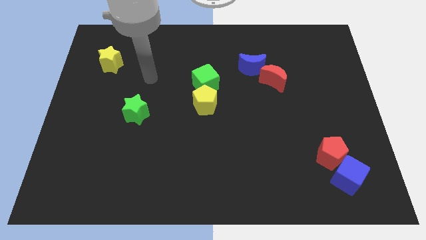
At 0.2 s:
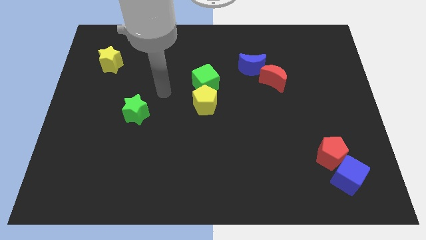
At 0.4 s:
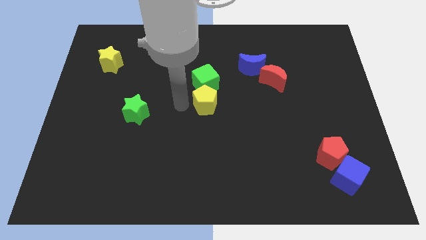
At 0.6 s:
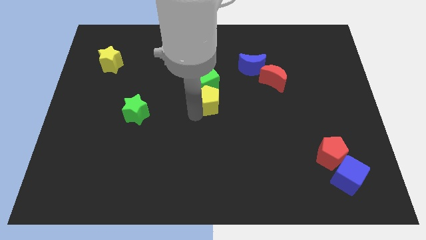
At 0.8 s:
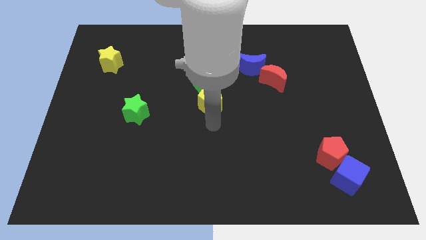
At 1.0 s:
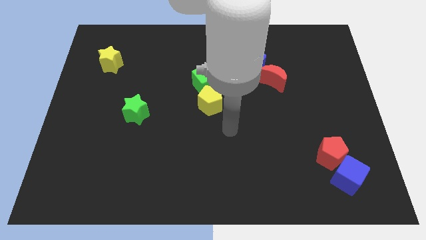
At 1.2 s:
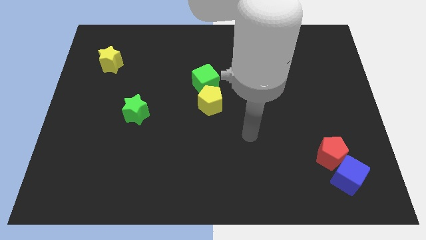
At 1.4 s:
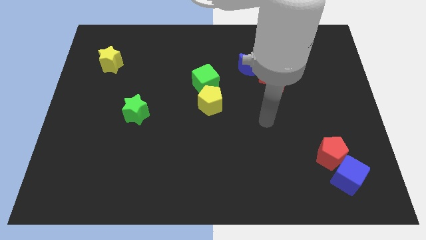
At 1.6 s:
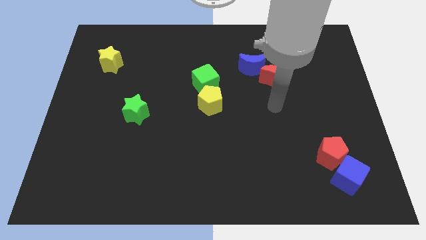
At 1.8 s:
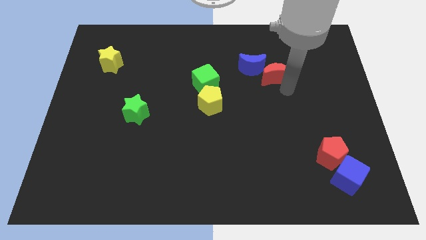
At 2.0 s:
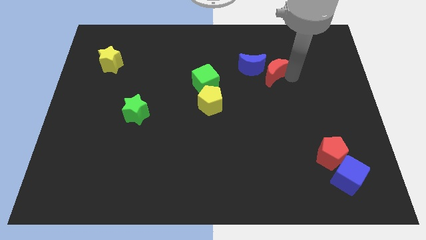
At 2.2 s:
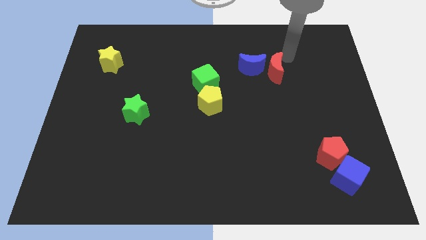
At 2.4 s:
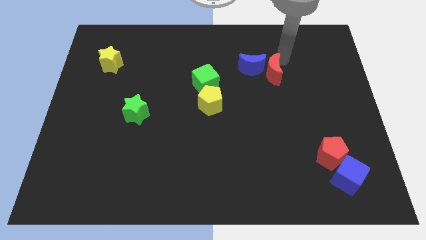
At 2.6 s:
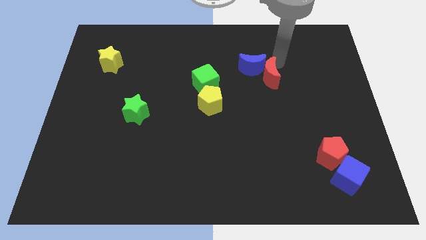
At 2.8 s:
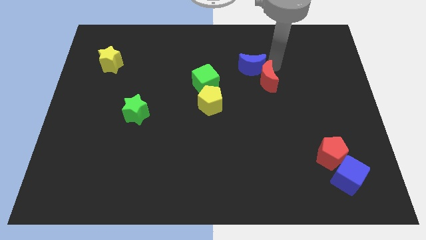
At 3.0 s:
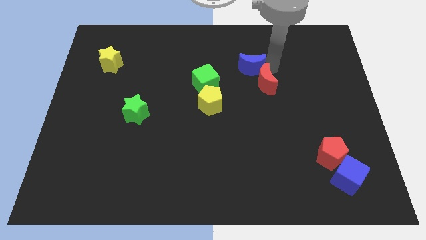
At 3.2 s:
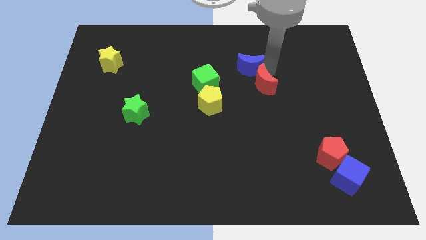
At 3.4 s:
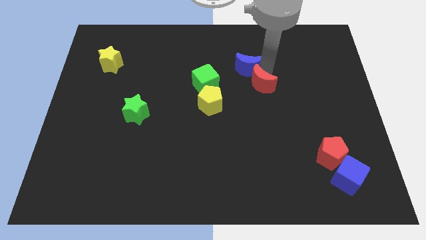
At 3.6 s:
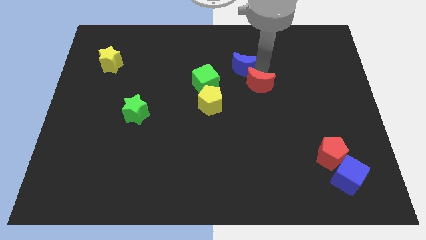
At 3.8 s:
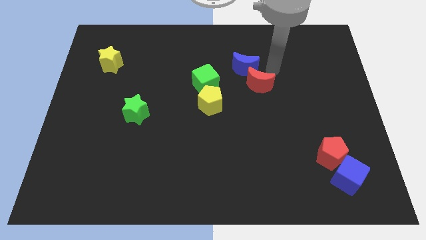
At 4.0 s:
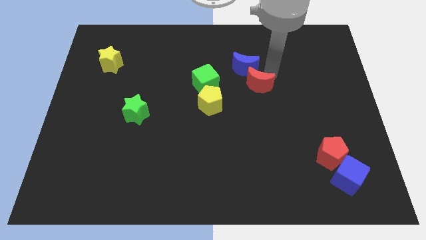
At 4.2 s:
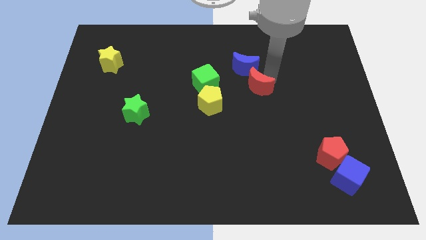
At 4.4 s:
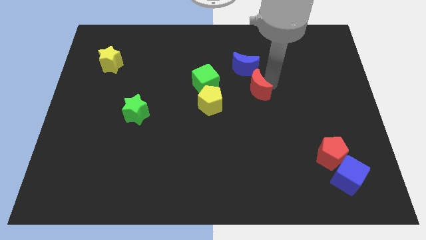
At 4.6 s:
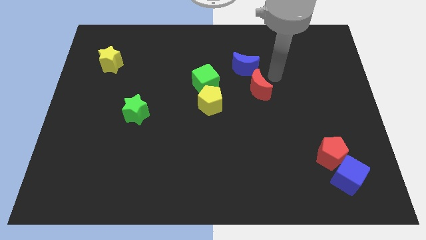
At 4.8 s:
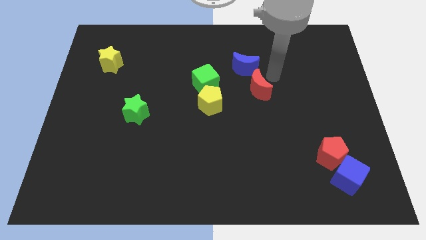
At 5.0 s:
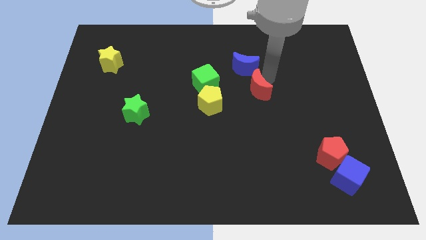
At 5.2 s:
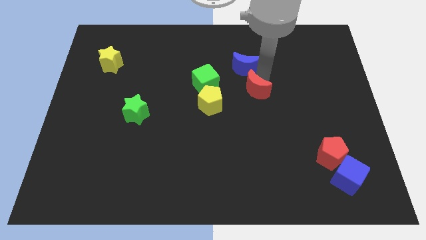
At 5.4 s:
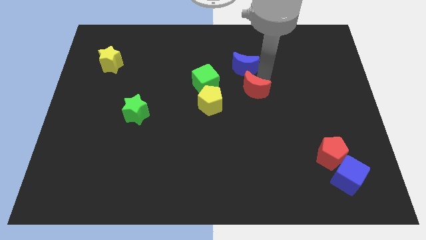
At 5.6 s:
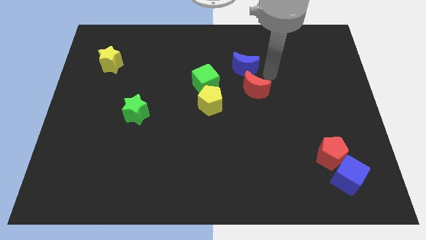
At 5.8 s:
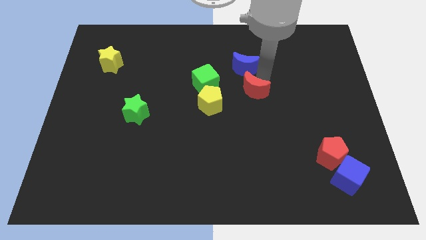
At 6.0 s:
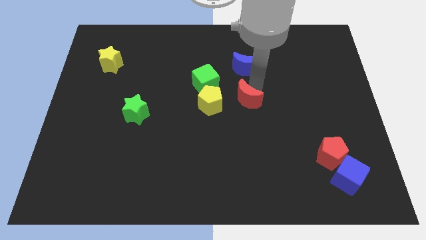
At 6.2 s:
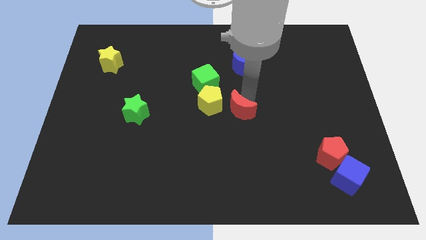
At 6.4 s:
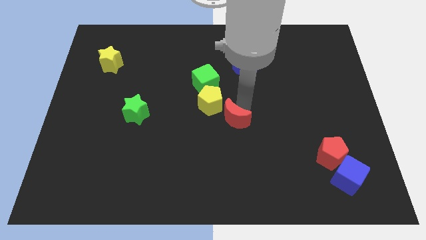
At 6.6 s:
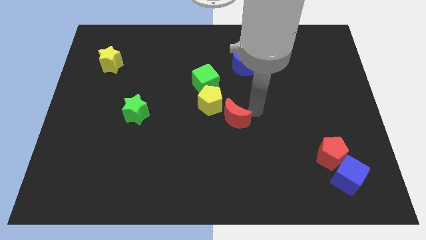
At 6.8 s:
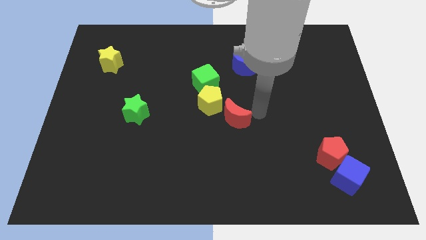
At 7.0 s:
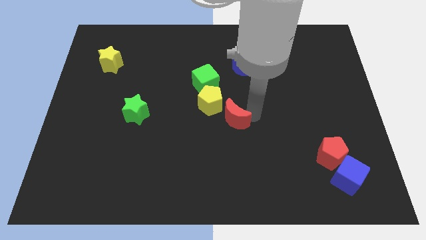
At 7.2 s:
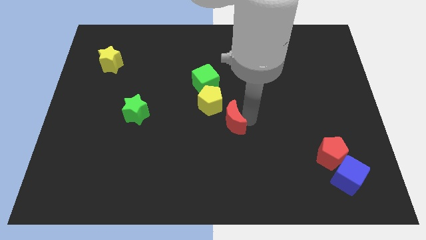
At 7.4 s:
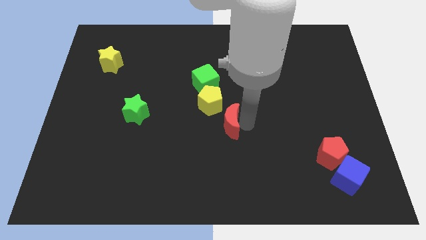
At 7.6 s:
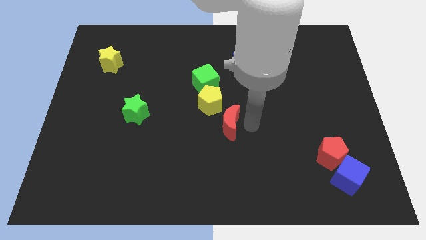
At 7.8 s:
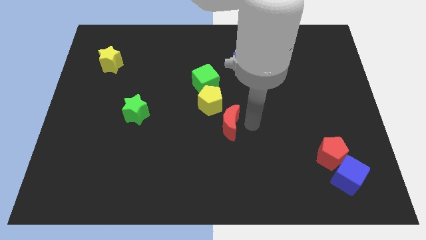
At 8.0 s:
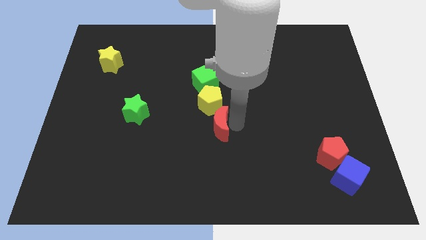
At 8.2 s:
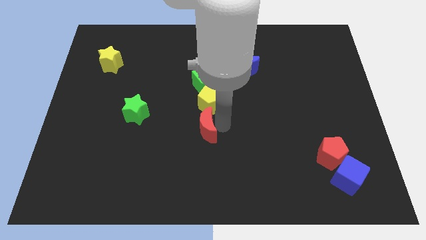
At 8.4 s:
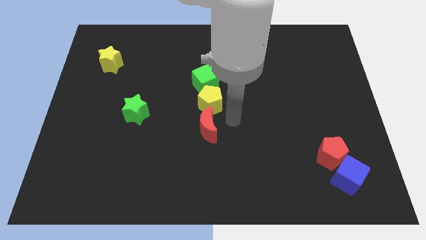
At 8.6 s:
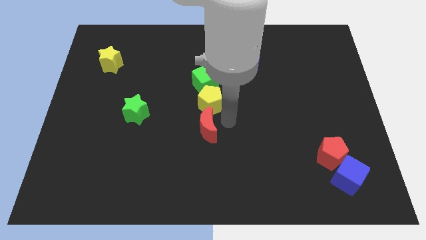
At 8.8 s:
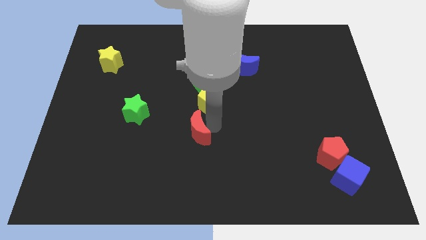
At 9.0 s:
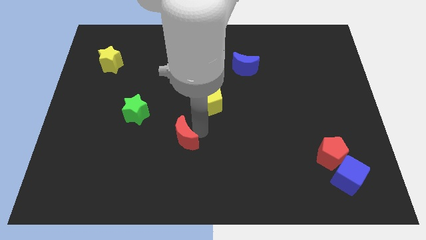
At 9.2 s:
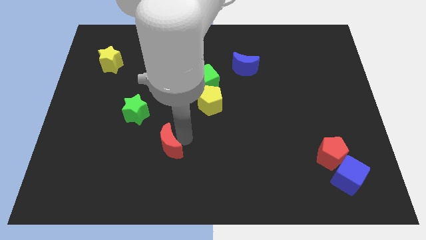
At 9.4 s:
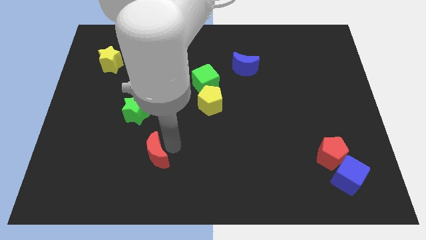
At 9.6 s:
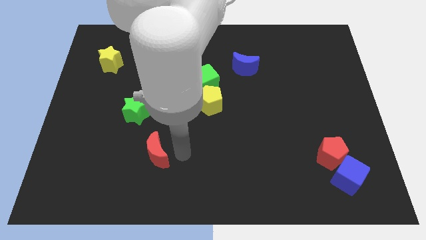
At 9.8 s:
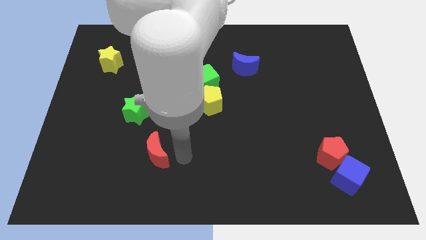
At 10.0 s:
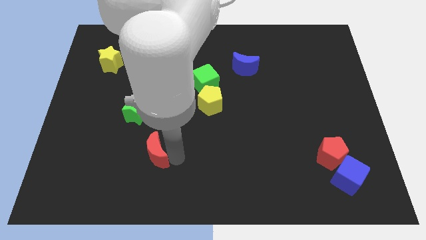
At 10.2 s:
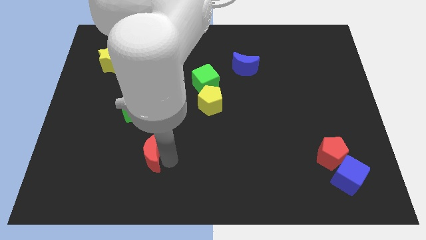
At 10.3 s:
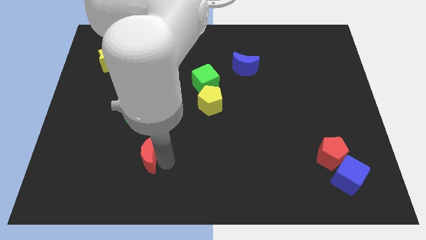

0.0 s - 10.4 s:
push the red moon to the bottom side of the green star

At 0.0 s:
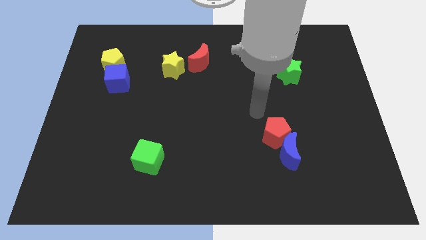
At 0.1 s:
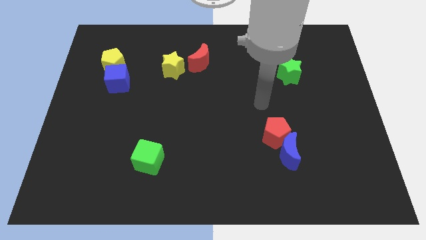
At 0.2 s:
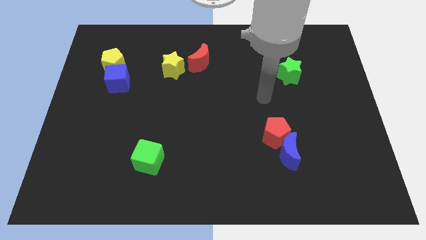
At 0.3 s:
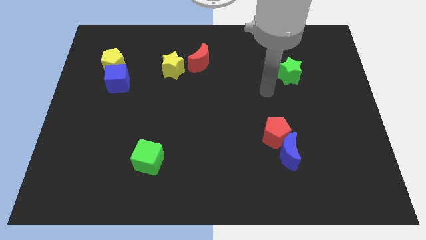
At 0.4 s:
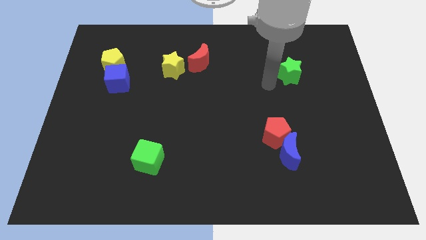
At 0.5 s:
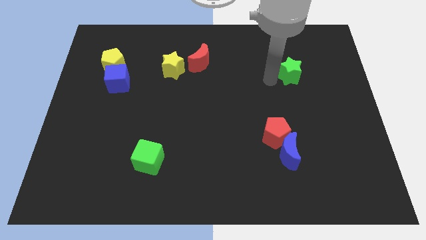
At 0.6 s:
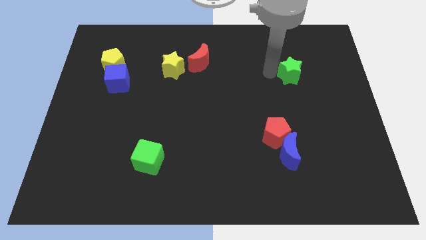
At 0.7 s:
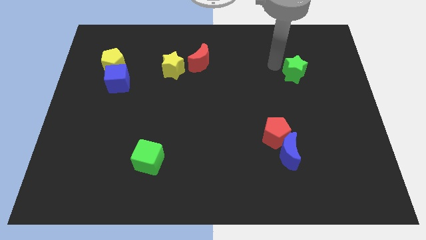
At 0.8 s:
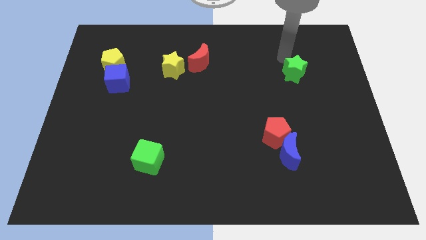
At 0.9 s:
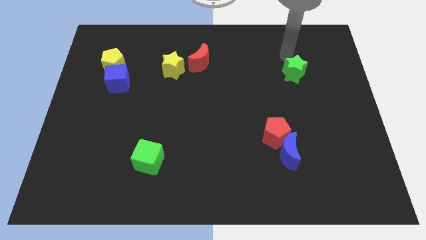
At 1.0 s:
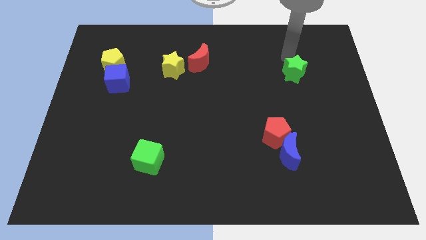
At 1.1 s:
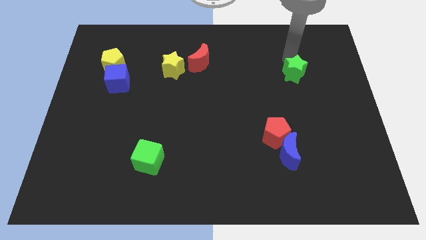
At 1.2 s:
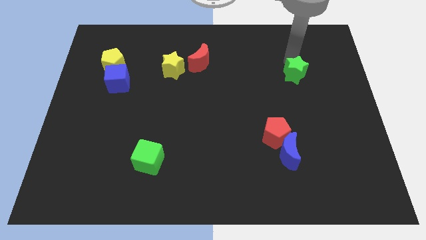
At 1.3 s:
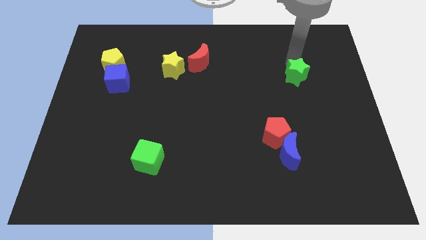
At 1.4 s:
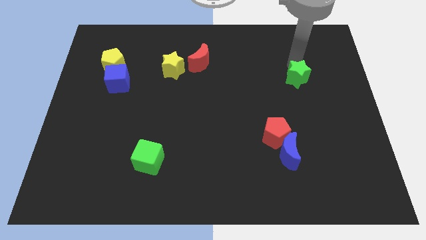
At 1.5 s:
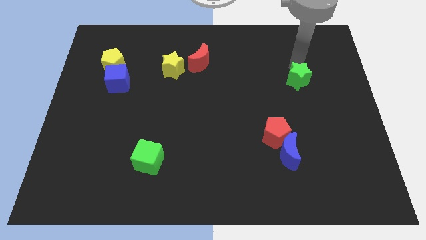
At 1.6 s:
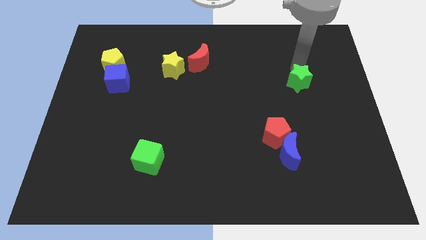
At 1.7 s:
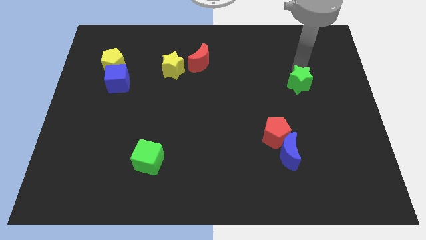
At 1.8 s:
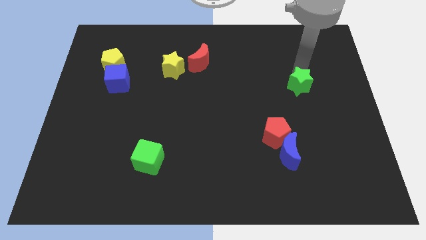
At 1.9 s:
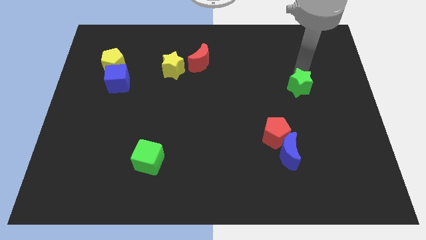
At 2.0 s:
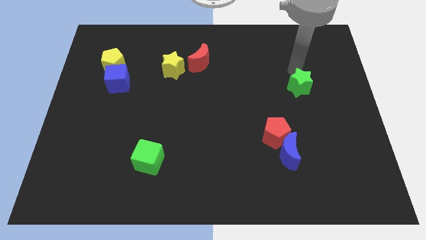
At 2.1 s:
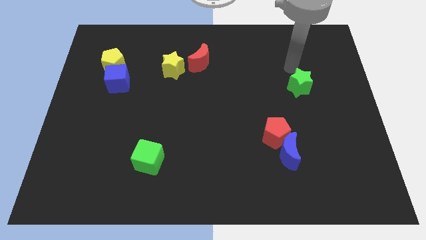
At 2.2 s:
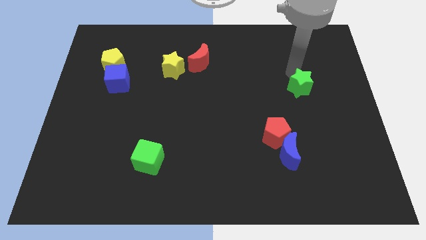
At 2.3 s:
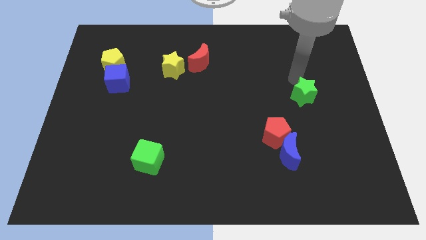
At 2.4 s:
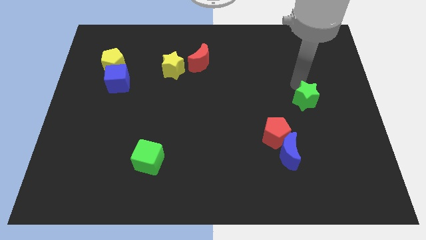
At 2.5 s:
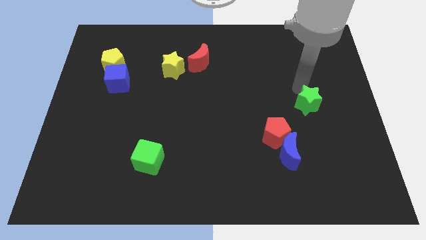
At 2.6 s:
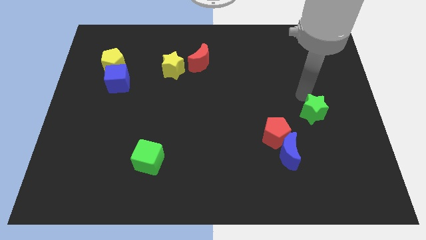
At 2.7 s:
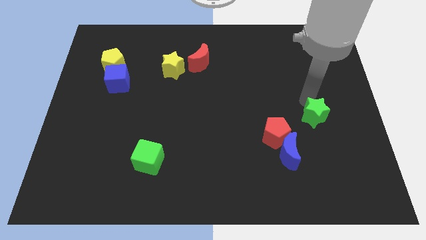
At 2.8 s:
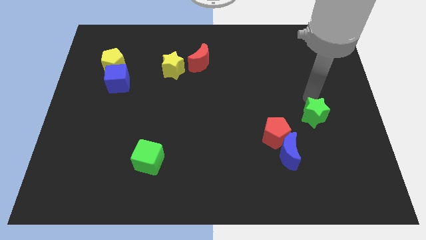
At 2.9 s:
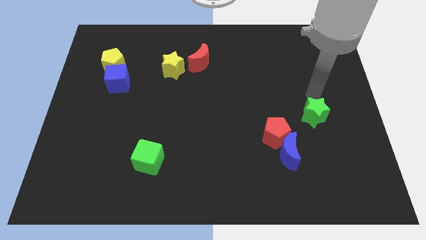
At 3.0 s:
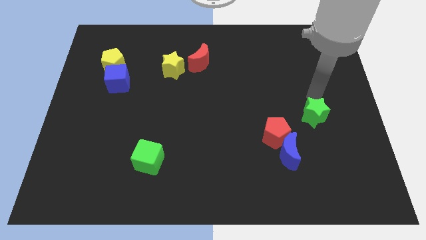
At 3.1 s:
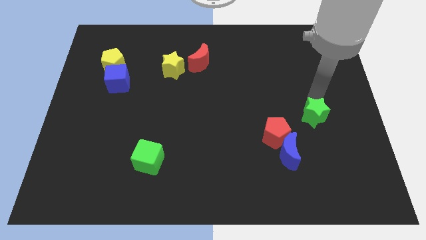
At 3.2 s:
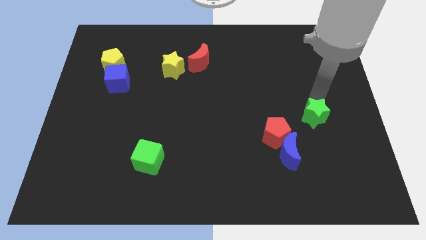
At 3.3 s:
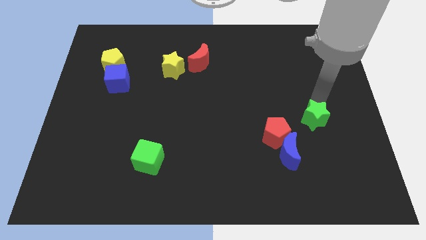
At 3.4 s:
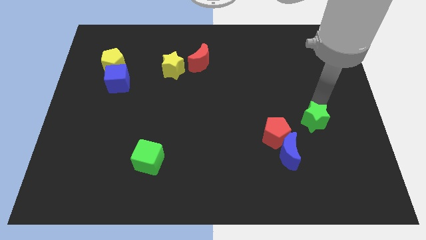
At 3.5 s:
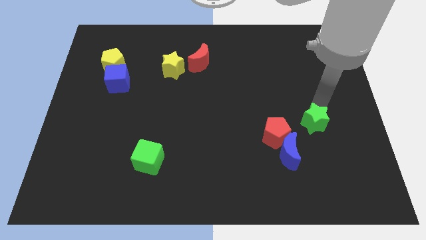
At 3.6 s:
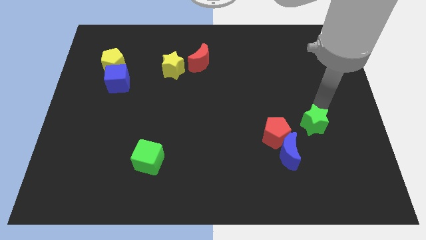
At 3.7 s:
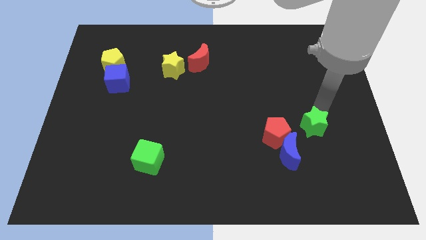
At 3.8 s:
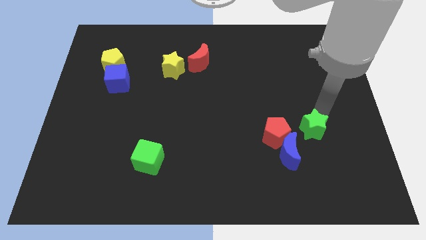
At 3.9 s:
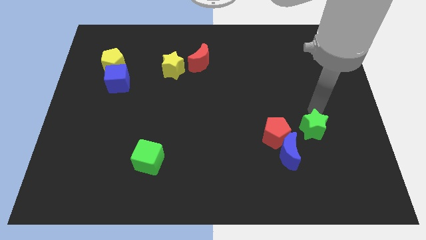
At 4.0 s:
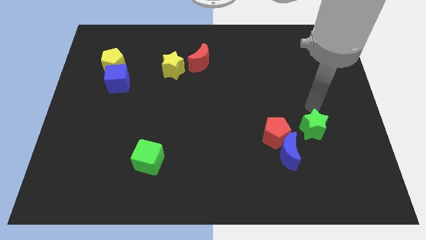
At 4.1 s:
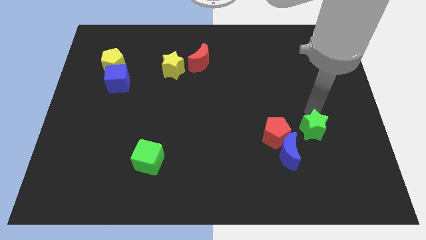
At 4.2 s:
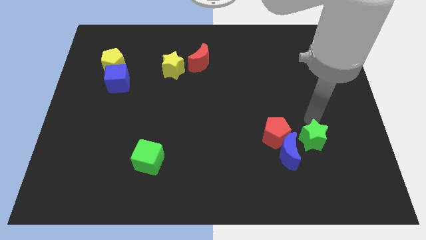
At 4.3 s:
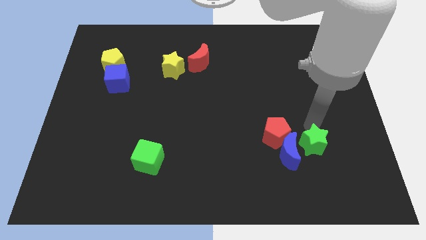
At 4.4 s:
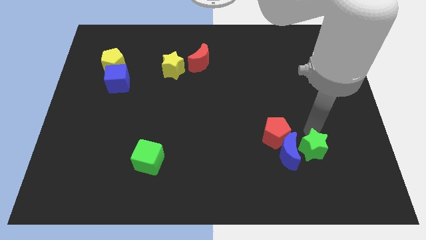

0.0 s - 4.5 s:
slide the green star to the bottom right of the blue moon
